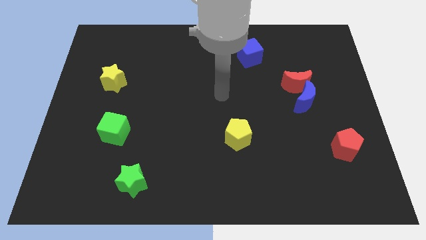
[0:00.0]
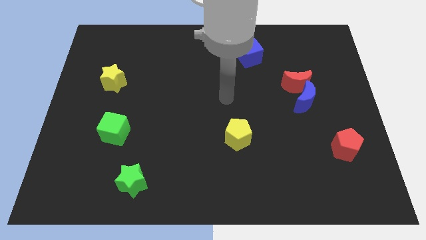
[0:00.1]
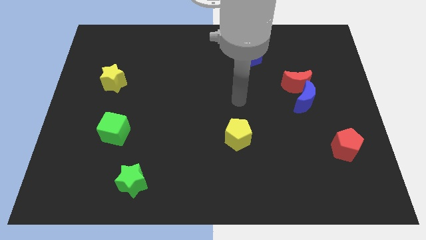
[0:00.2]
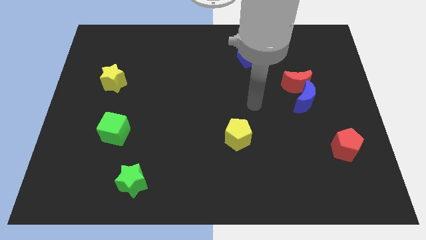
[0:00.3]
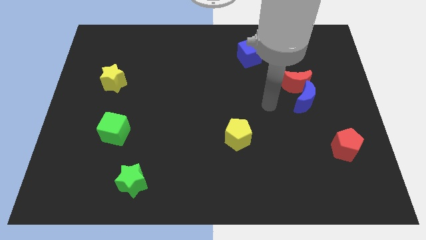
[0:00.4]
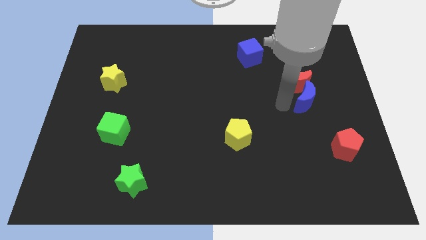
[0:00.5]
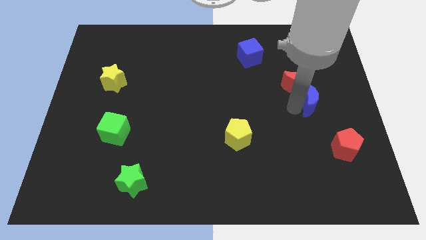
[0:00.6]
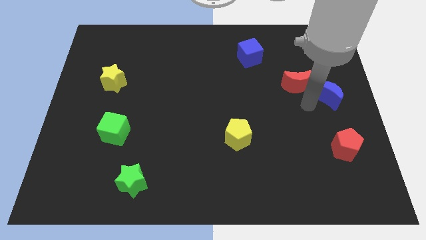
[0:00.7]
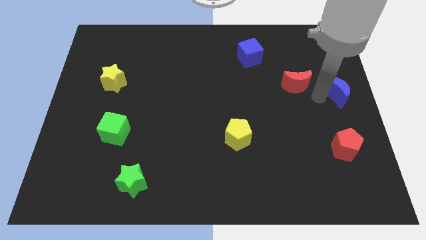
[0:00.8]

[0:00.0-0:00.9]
separate the red moon from the blue moon

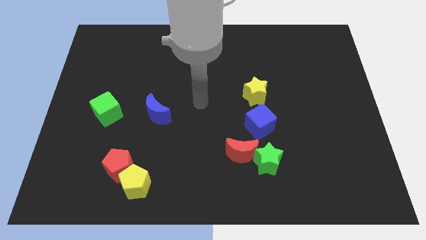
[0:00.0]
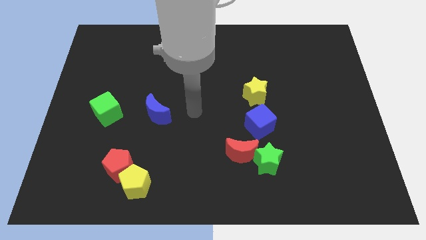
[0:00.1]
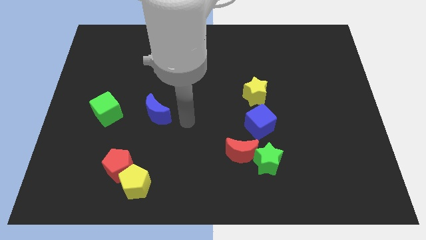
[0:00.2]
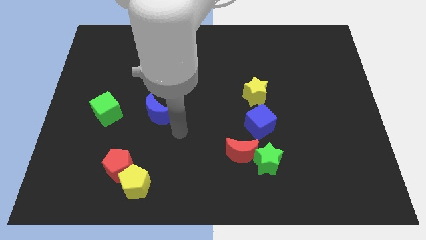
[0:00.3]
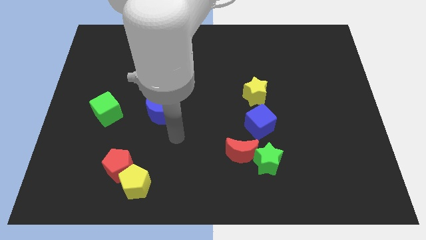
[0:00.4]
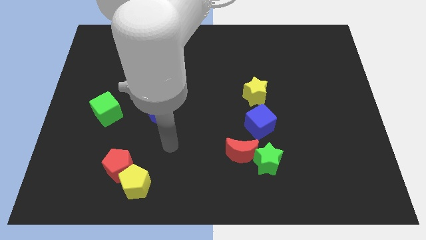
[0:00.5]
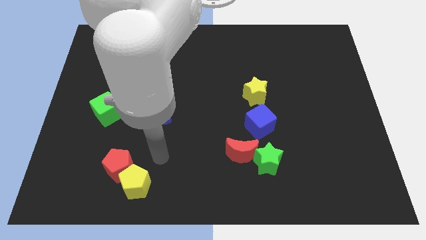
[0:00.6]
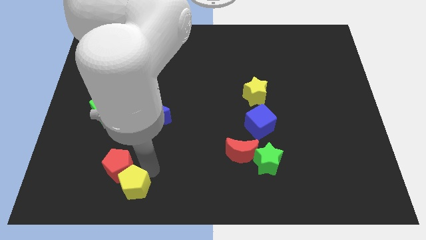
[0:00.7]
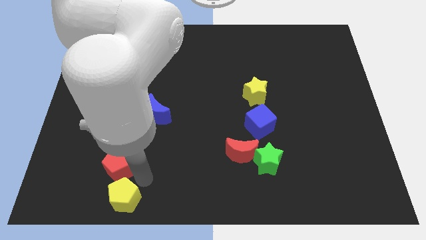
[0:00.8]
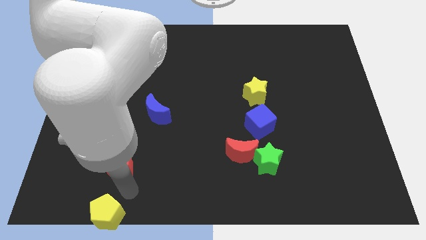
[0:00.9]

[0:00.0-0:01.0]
pull the red pentagon apart from the yellow pentagon

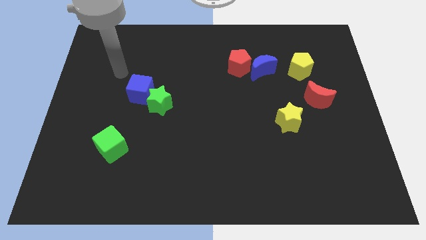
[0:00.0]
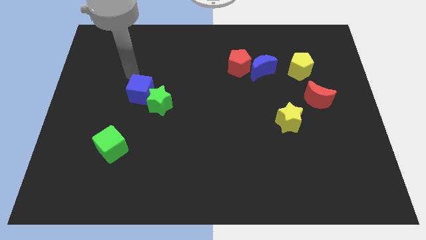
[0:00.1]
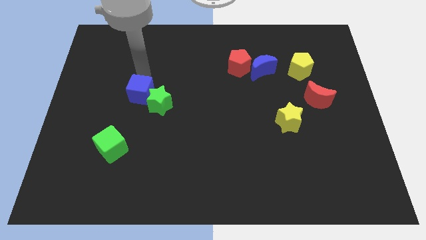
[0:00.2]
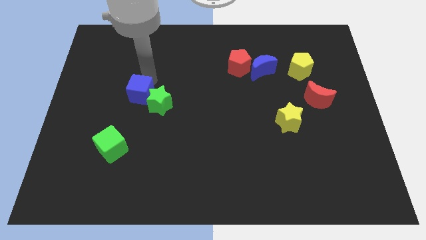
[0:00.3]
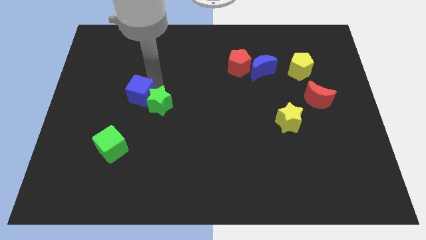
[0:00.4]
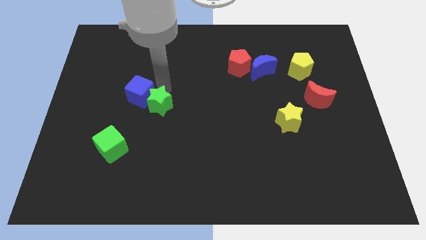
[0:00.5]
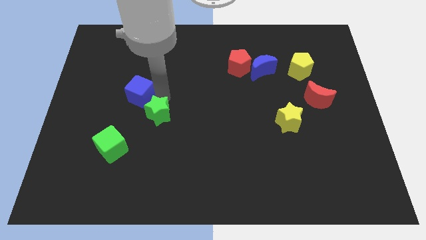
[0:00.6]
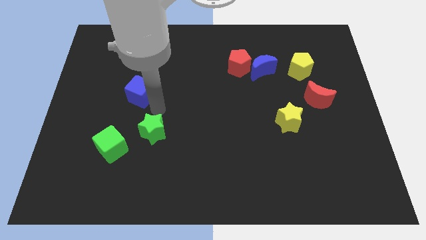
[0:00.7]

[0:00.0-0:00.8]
separate the blue cube from the green star

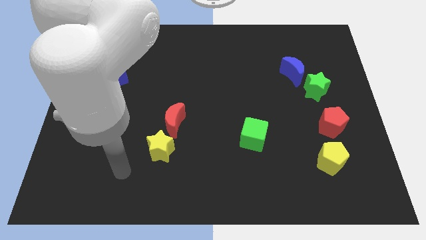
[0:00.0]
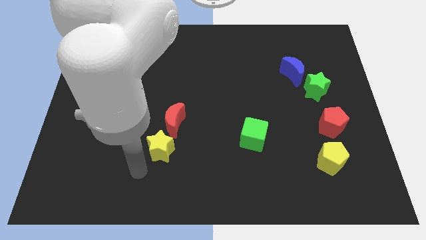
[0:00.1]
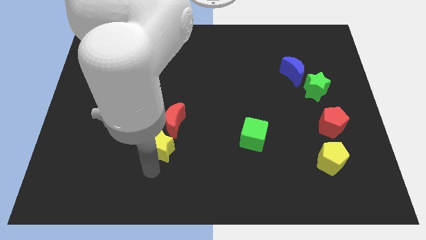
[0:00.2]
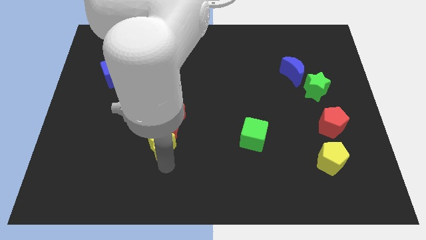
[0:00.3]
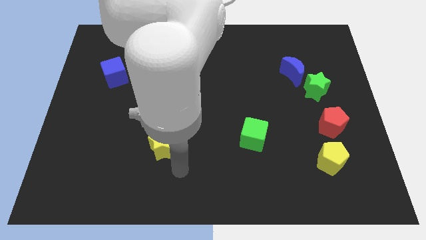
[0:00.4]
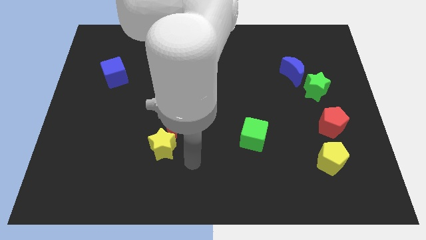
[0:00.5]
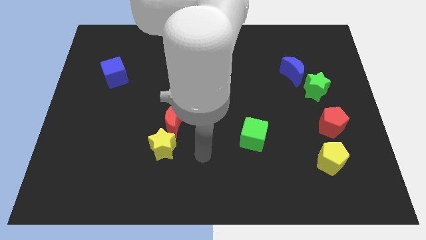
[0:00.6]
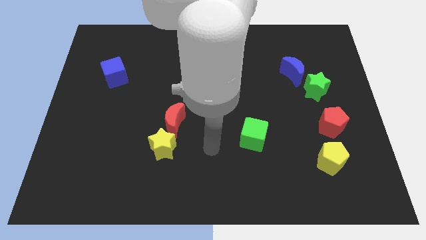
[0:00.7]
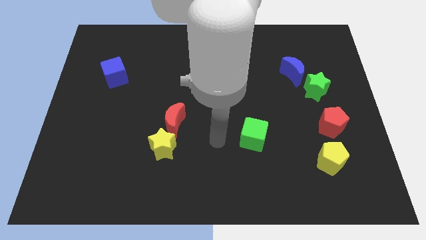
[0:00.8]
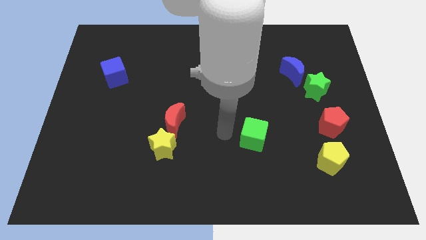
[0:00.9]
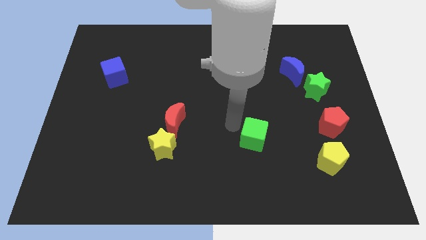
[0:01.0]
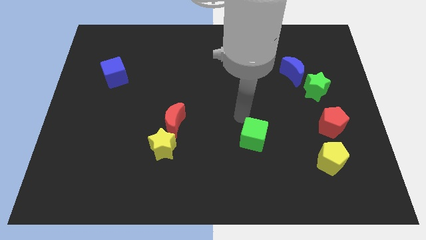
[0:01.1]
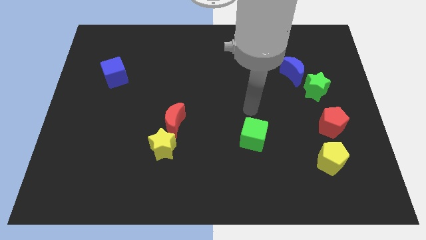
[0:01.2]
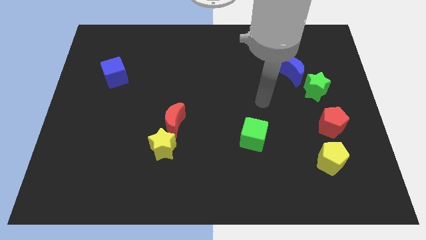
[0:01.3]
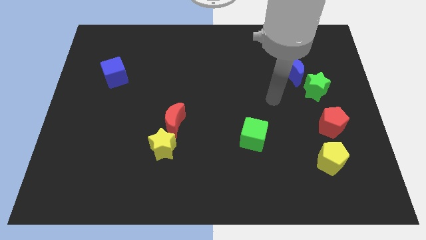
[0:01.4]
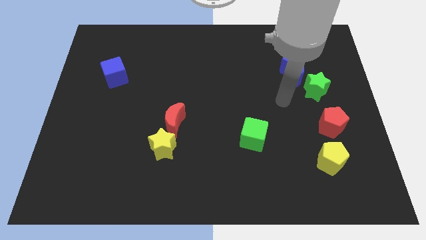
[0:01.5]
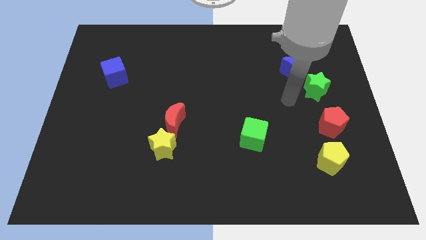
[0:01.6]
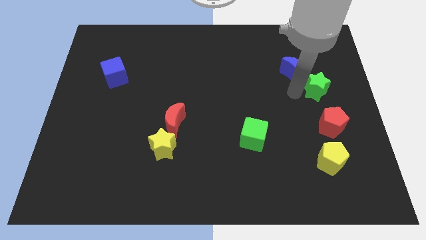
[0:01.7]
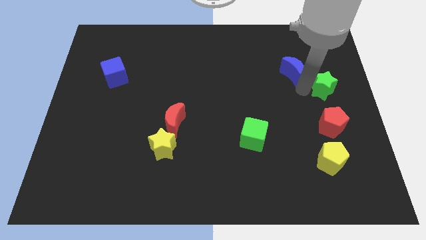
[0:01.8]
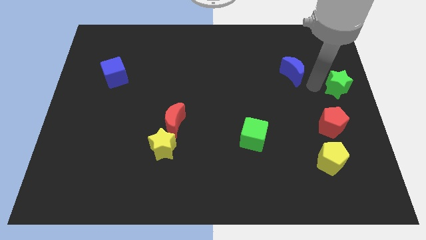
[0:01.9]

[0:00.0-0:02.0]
move the blue moon away from the green star

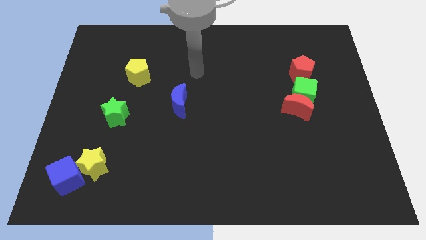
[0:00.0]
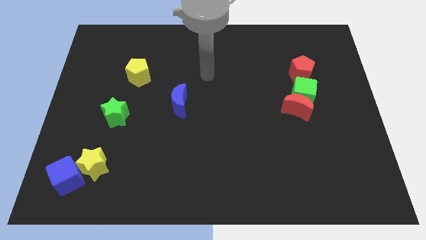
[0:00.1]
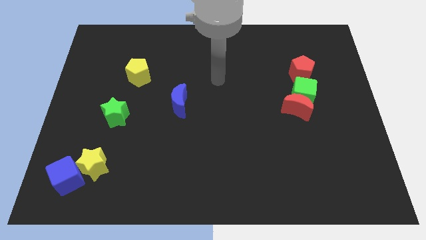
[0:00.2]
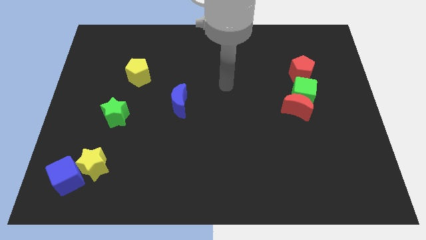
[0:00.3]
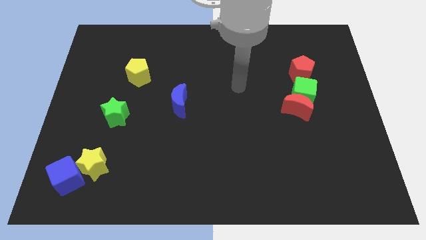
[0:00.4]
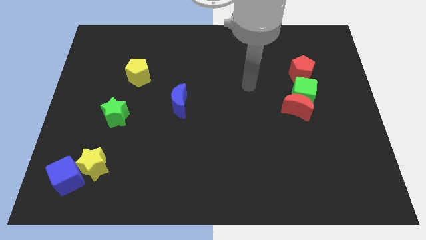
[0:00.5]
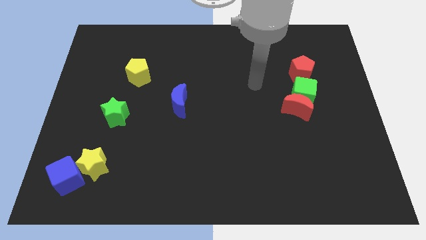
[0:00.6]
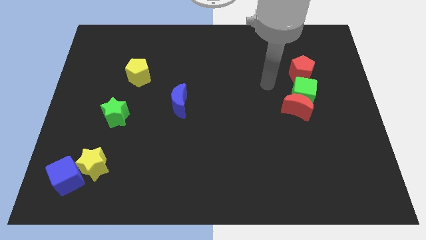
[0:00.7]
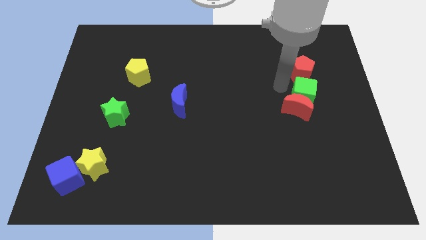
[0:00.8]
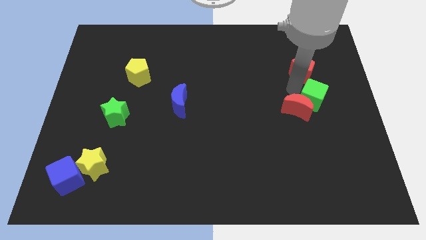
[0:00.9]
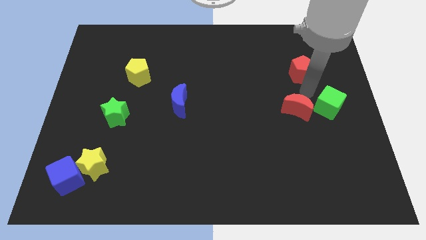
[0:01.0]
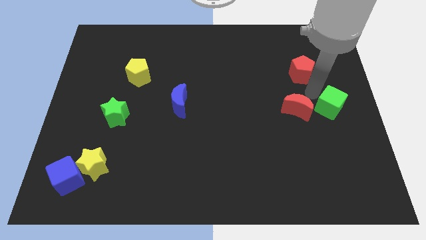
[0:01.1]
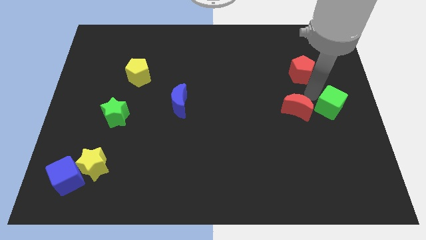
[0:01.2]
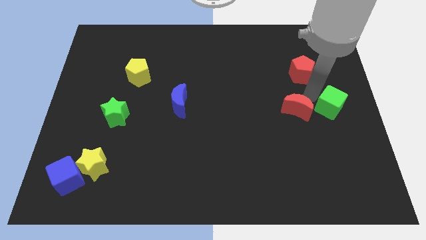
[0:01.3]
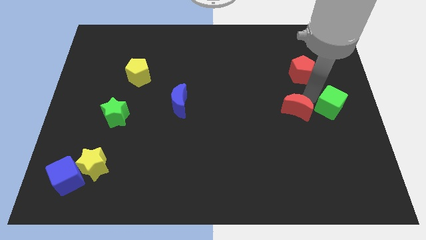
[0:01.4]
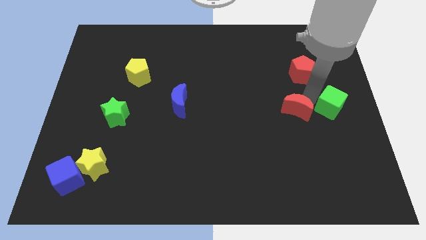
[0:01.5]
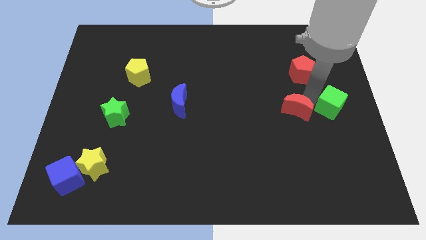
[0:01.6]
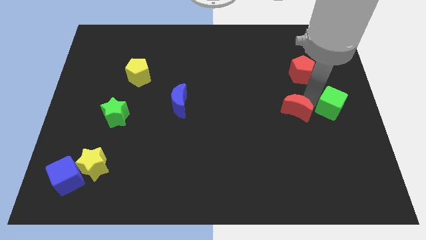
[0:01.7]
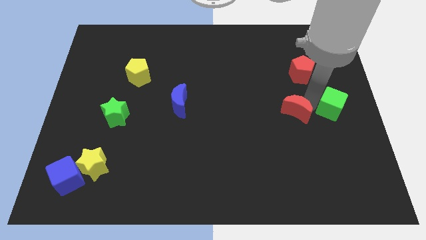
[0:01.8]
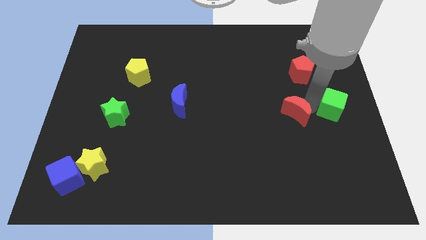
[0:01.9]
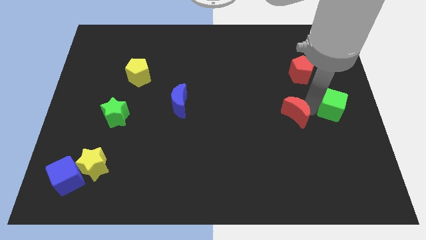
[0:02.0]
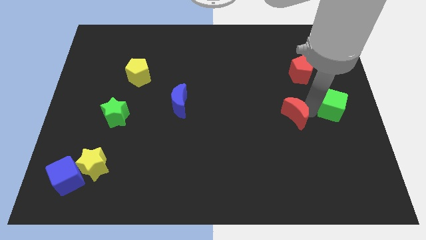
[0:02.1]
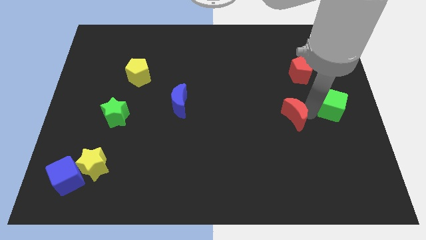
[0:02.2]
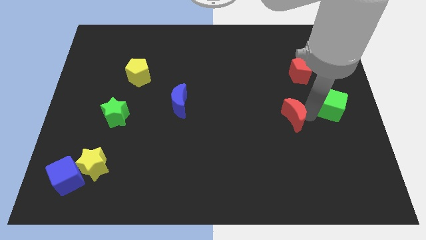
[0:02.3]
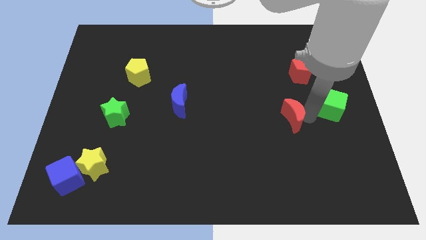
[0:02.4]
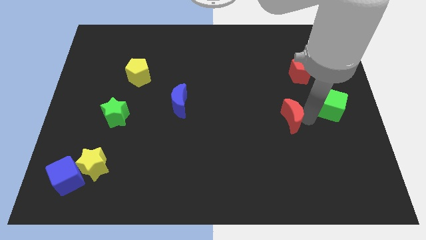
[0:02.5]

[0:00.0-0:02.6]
move the red moon away from the green cube

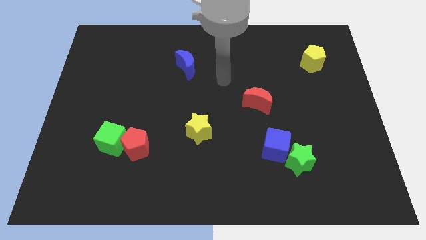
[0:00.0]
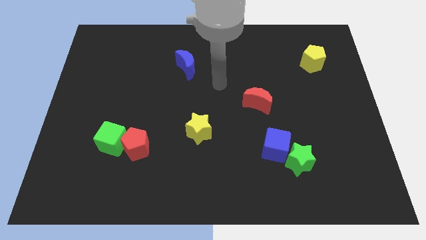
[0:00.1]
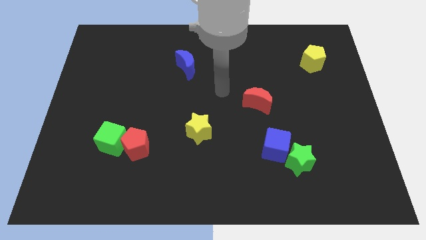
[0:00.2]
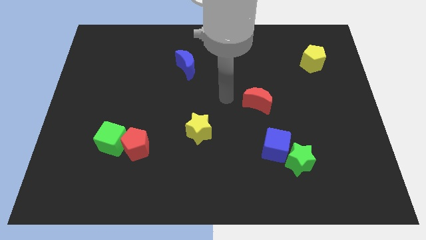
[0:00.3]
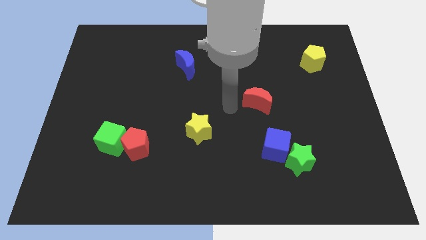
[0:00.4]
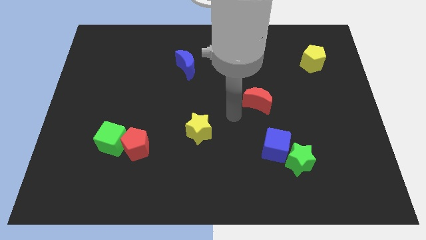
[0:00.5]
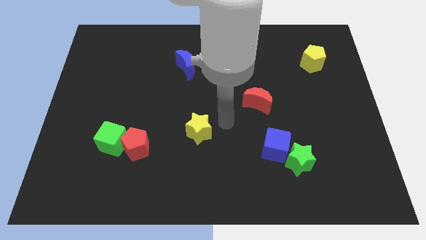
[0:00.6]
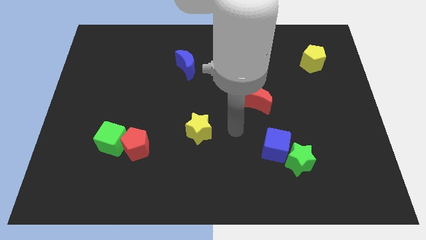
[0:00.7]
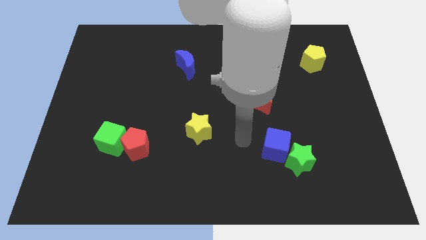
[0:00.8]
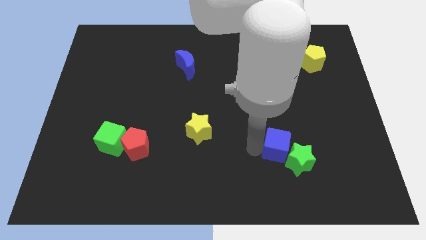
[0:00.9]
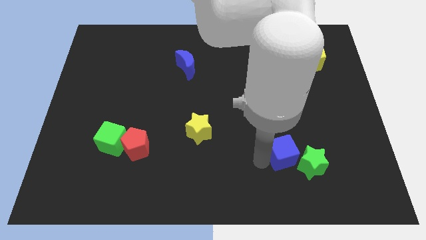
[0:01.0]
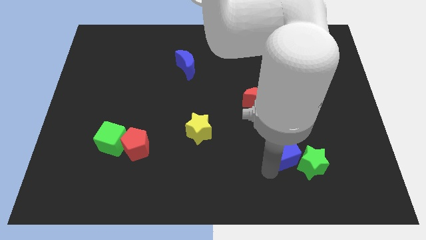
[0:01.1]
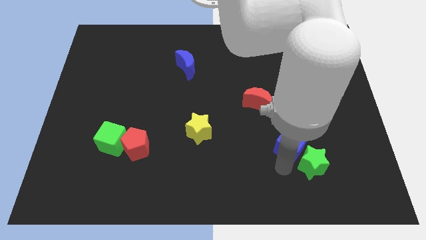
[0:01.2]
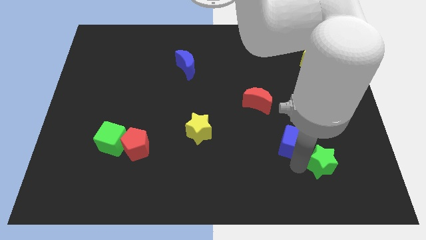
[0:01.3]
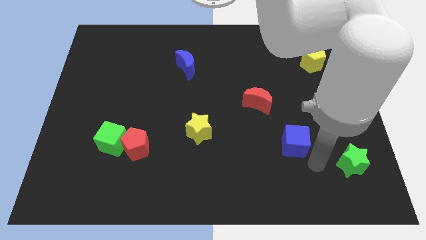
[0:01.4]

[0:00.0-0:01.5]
pull the blue cube apart from the green star

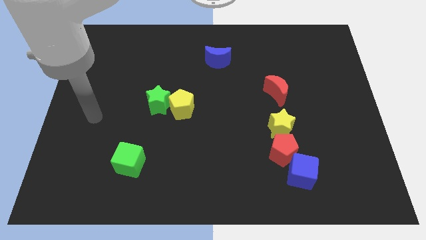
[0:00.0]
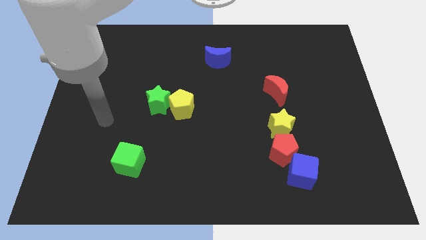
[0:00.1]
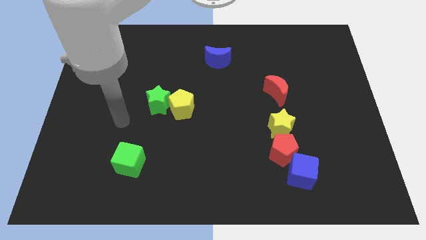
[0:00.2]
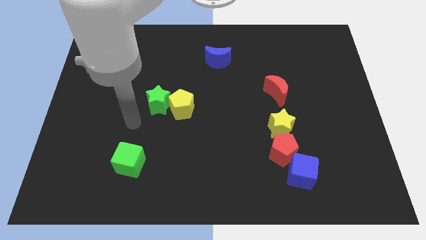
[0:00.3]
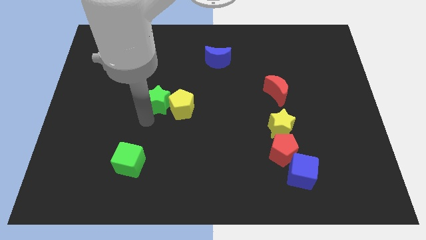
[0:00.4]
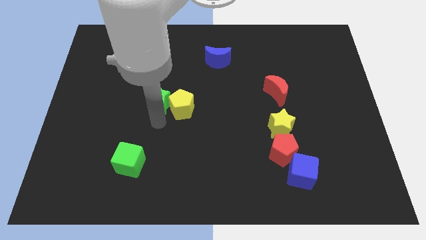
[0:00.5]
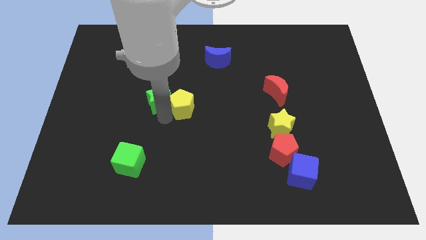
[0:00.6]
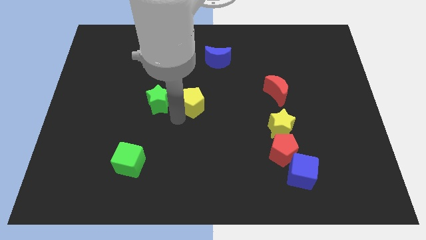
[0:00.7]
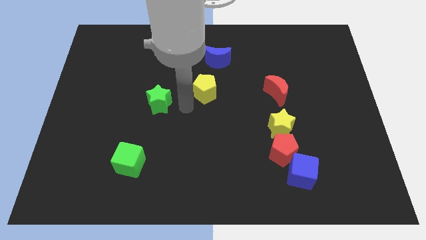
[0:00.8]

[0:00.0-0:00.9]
separate the green star from the yellow pentagon
